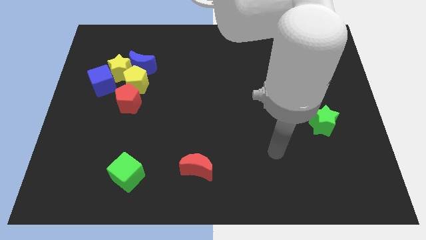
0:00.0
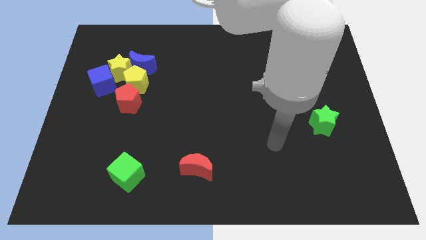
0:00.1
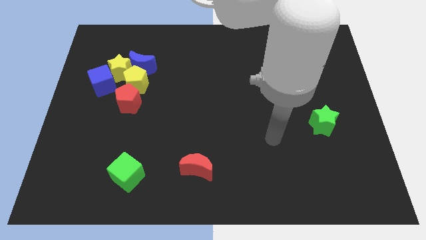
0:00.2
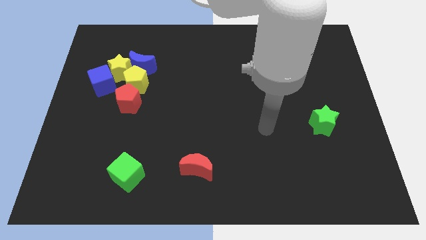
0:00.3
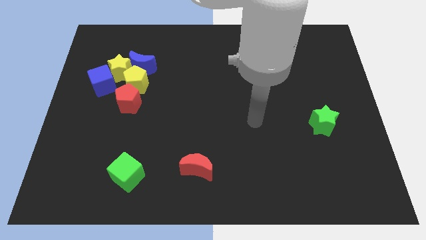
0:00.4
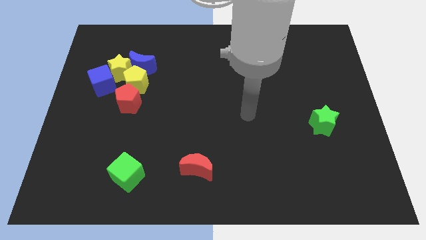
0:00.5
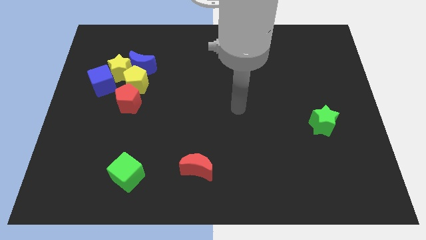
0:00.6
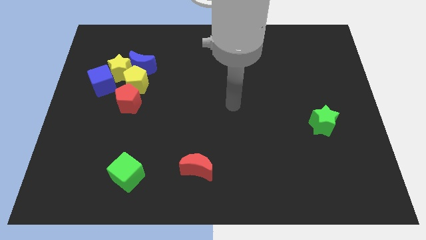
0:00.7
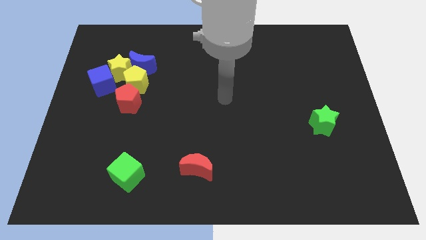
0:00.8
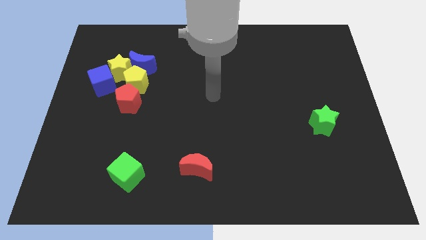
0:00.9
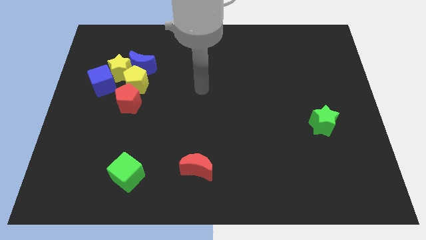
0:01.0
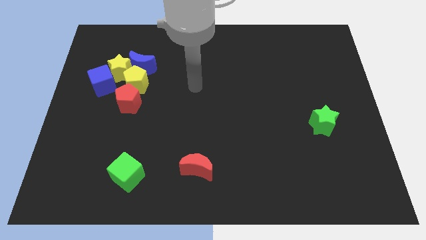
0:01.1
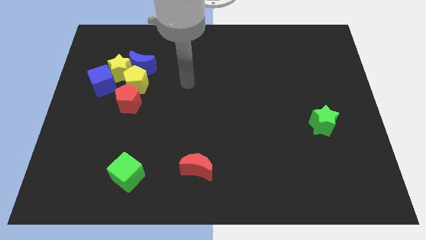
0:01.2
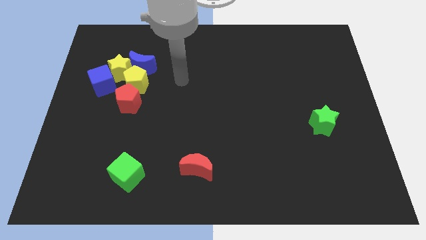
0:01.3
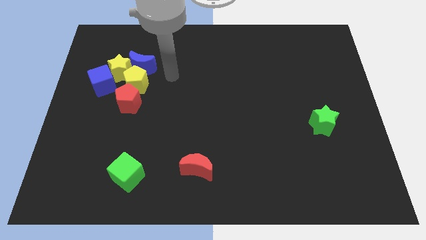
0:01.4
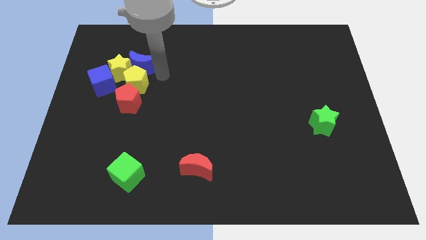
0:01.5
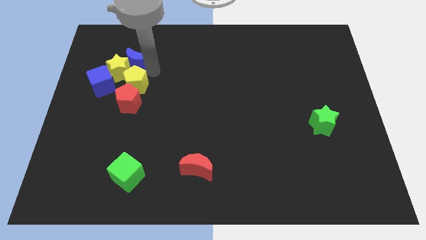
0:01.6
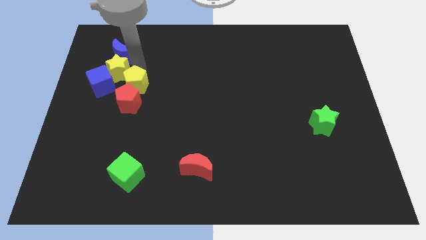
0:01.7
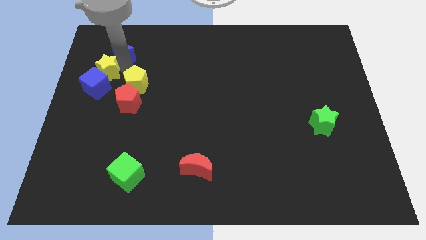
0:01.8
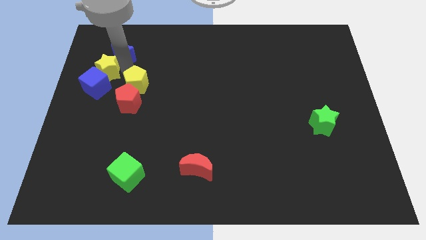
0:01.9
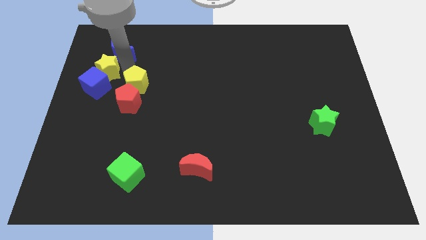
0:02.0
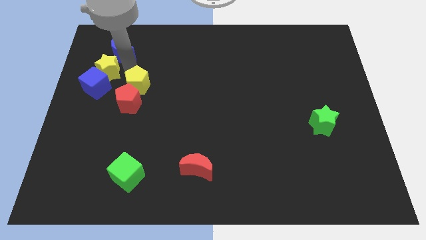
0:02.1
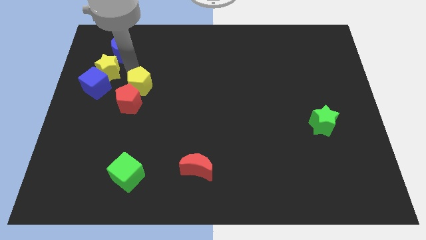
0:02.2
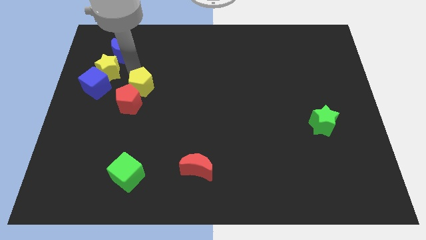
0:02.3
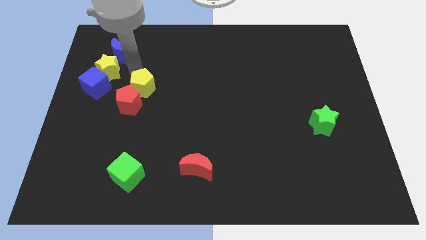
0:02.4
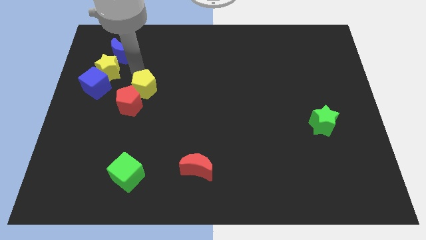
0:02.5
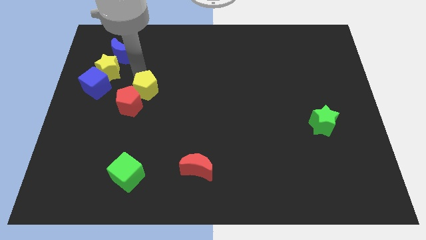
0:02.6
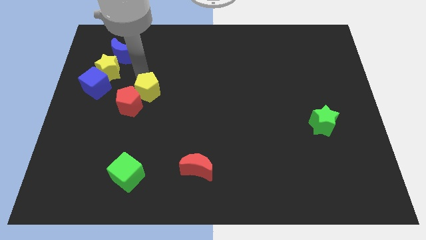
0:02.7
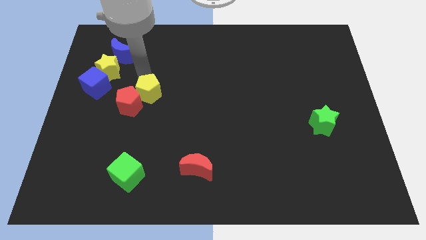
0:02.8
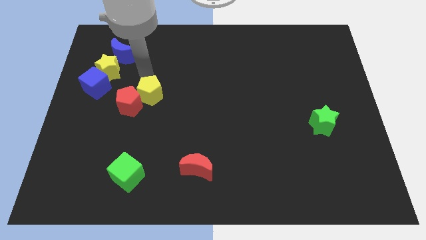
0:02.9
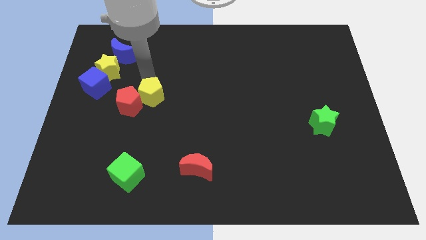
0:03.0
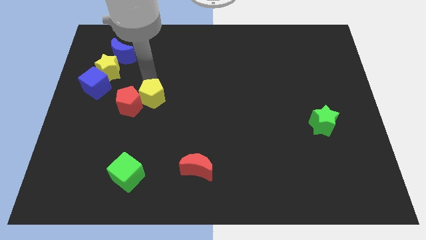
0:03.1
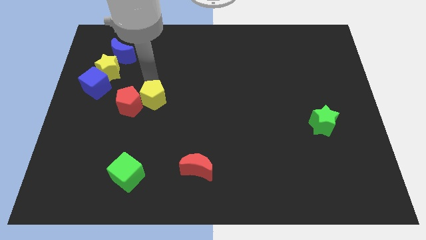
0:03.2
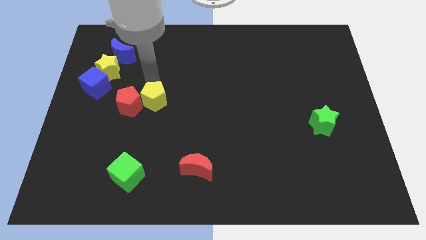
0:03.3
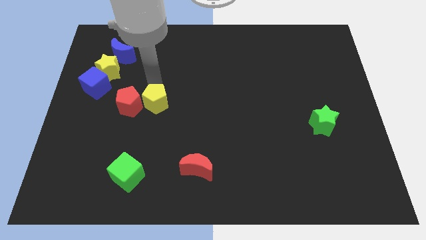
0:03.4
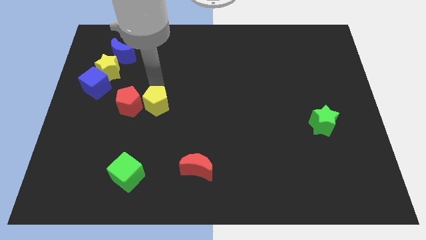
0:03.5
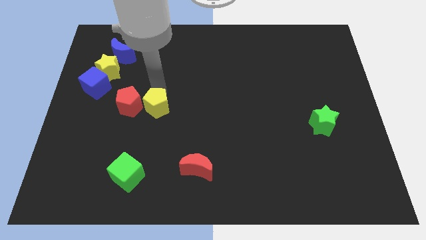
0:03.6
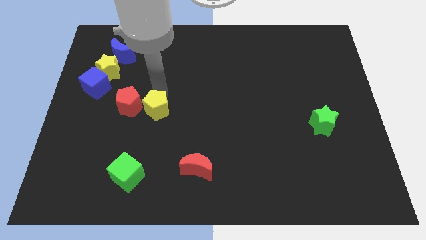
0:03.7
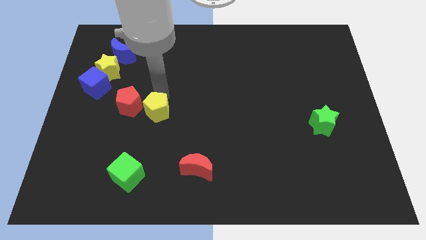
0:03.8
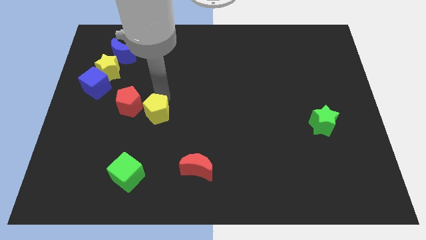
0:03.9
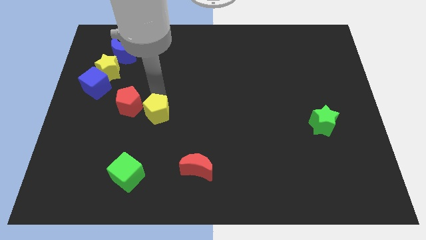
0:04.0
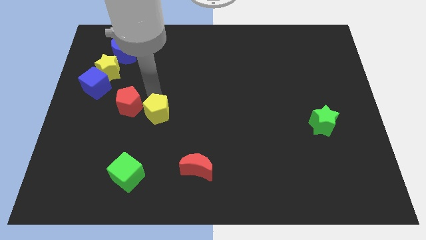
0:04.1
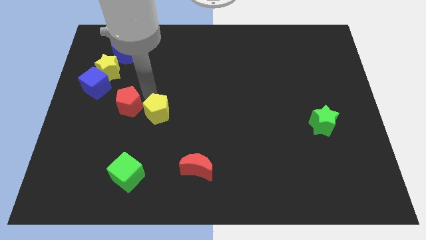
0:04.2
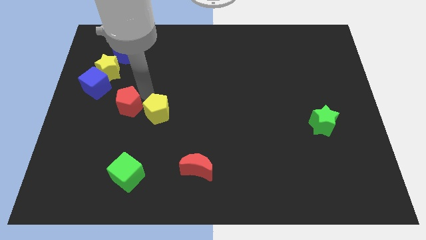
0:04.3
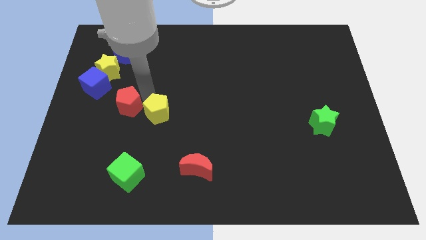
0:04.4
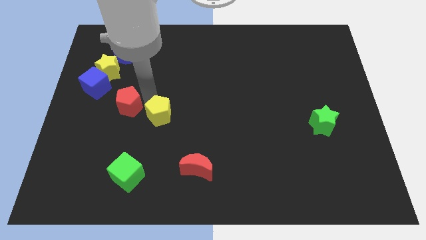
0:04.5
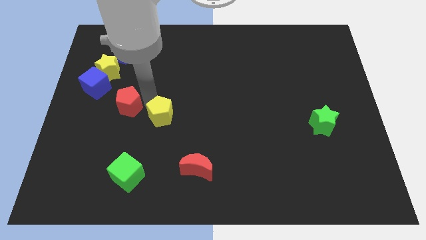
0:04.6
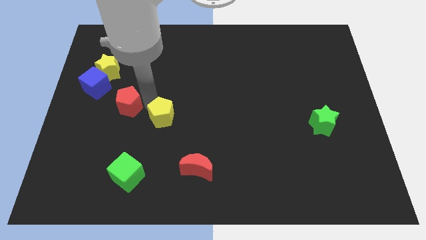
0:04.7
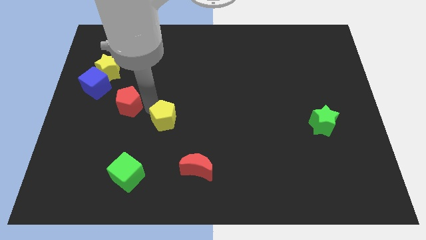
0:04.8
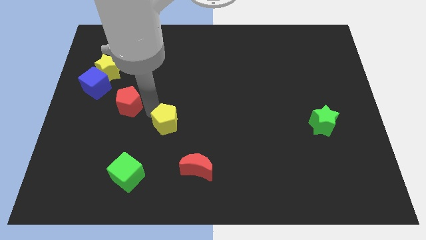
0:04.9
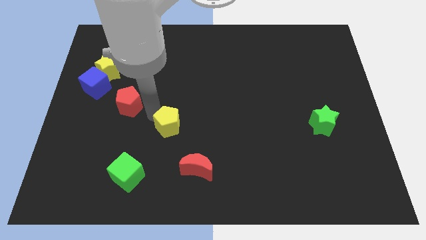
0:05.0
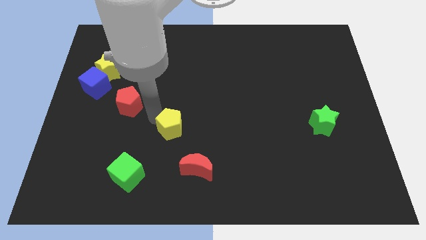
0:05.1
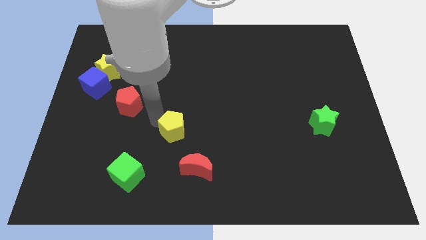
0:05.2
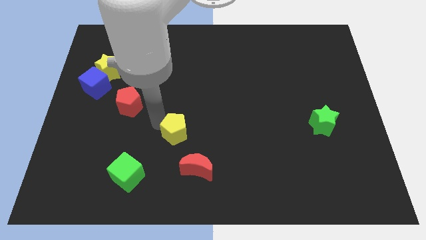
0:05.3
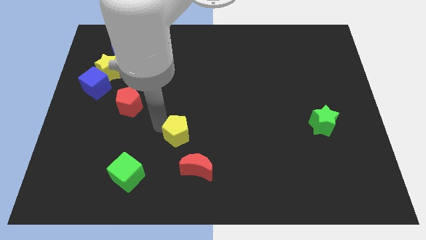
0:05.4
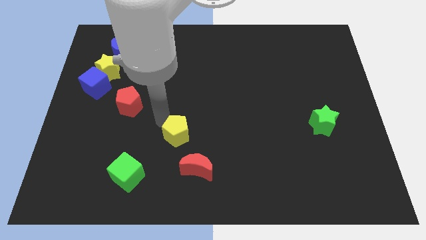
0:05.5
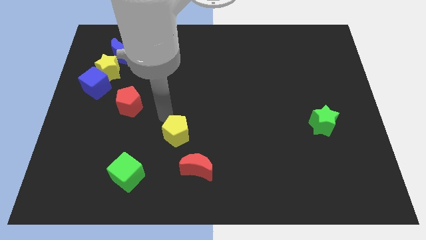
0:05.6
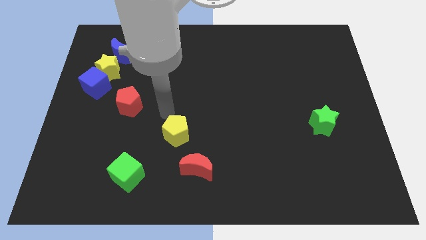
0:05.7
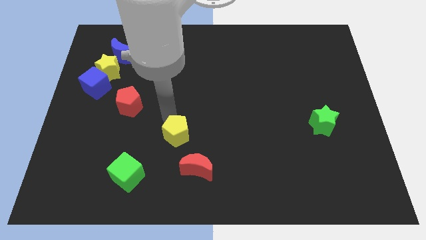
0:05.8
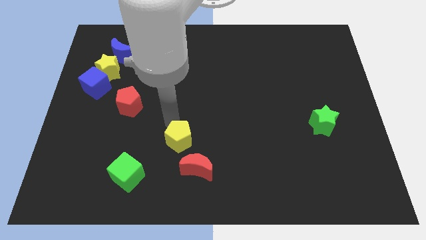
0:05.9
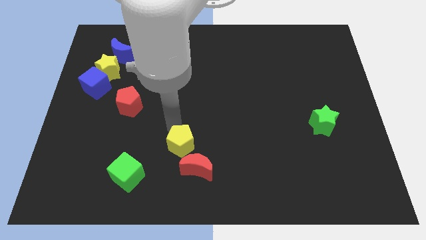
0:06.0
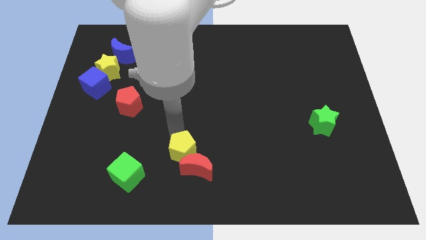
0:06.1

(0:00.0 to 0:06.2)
move the yellow pentagon to the red moon
